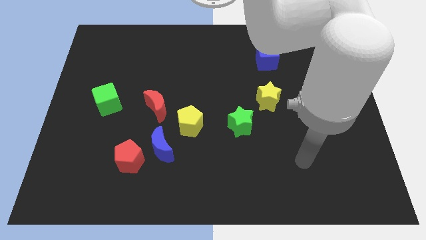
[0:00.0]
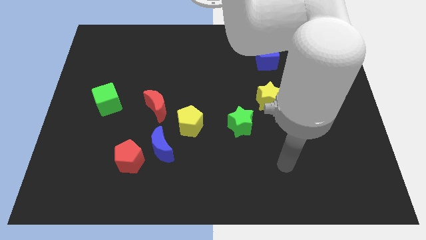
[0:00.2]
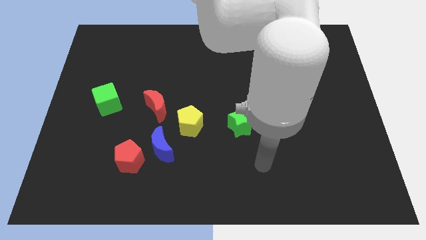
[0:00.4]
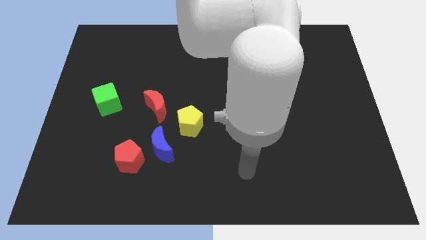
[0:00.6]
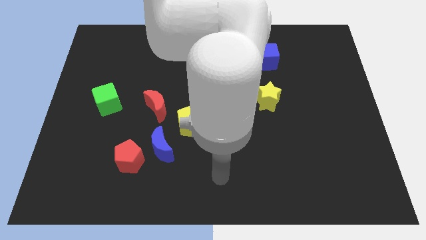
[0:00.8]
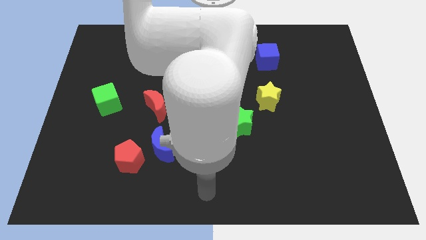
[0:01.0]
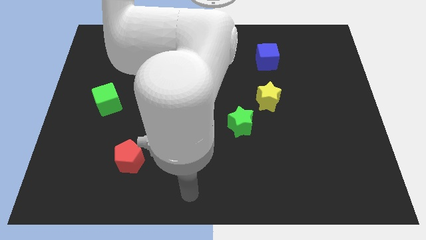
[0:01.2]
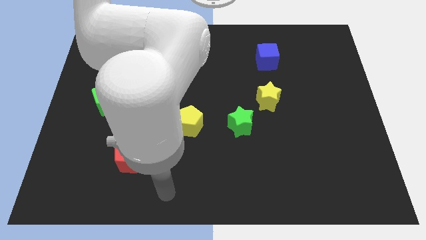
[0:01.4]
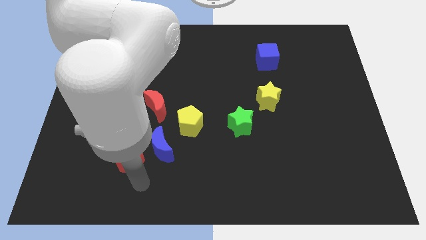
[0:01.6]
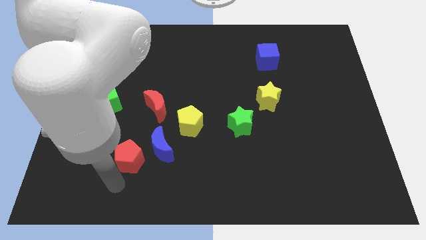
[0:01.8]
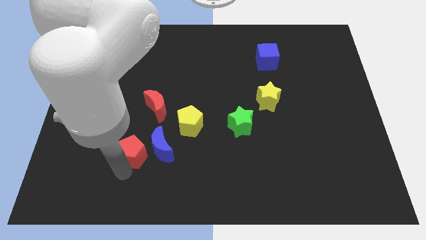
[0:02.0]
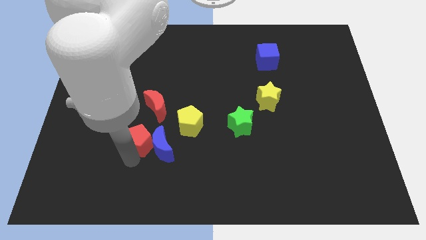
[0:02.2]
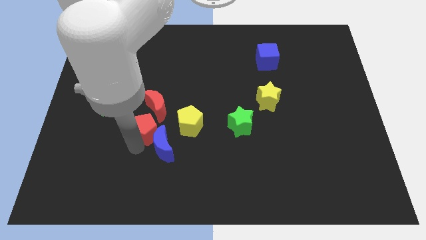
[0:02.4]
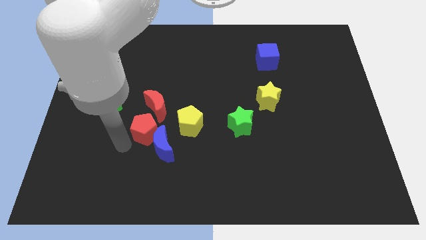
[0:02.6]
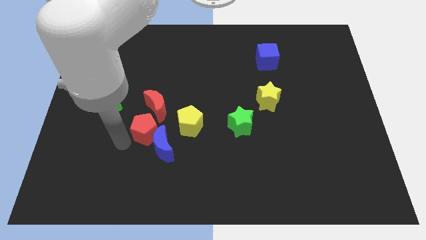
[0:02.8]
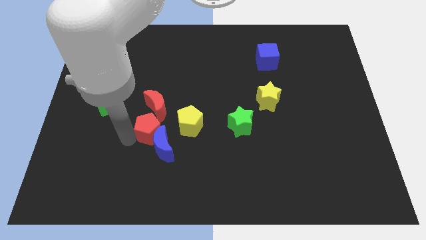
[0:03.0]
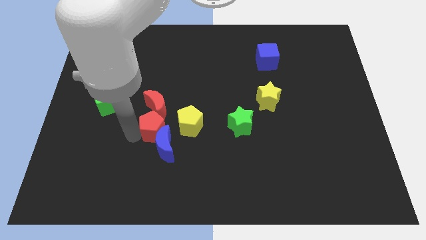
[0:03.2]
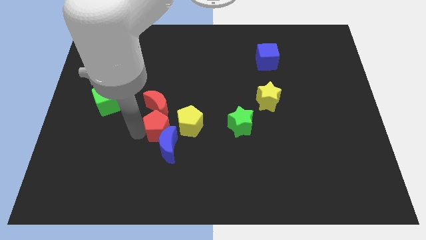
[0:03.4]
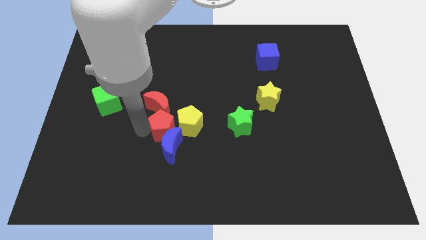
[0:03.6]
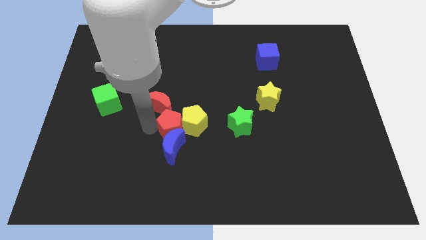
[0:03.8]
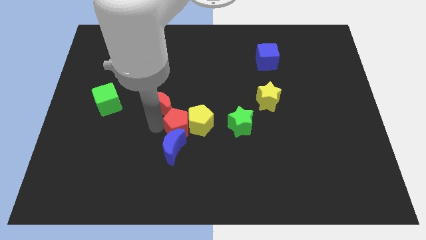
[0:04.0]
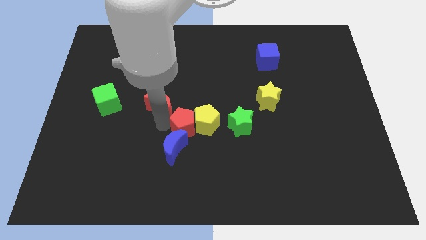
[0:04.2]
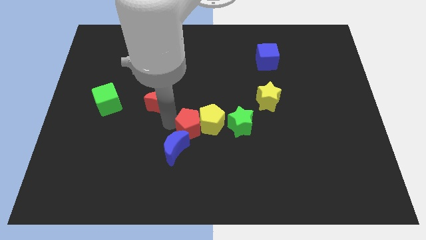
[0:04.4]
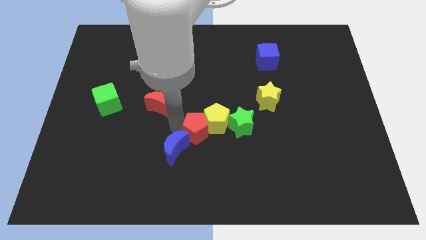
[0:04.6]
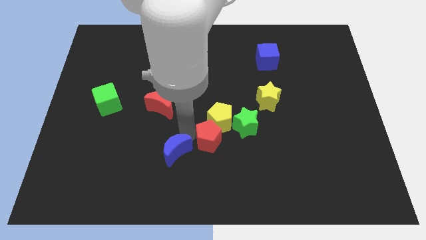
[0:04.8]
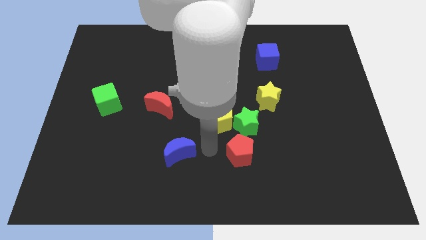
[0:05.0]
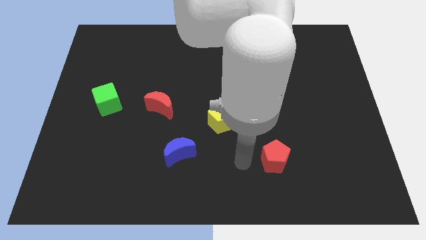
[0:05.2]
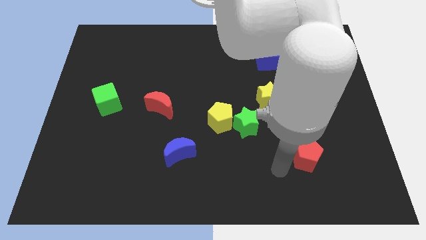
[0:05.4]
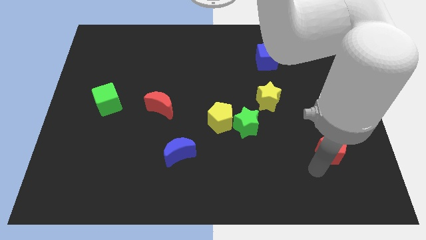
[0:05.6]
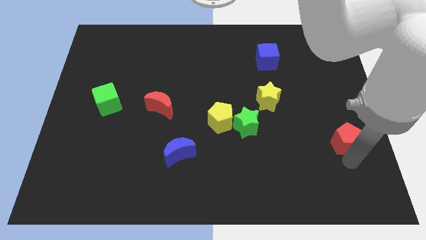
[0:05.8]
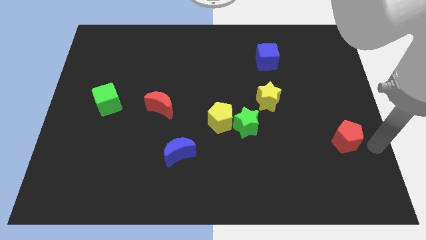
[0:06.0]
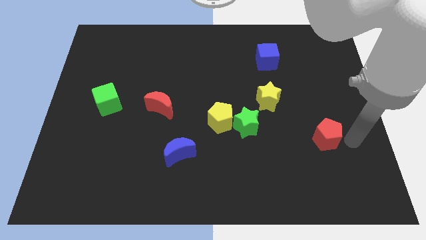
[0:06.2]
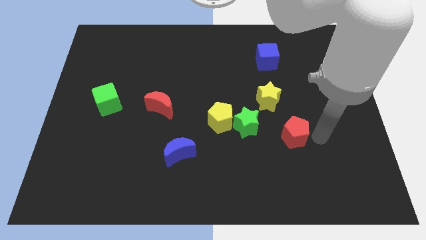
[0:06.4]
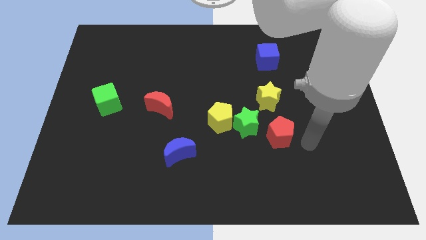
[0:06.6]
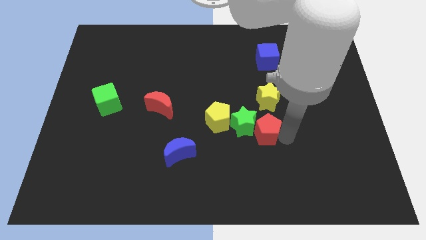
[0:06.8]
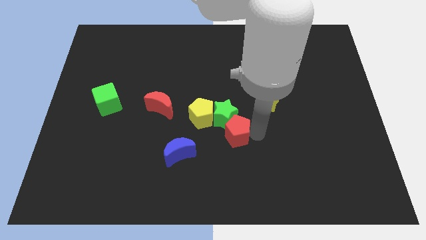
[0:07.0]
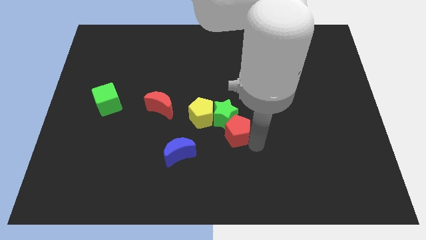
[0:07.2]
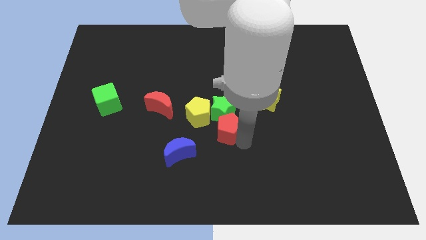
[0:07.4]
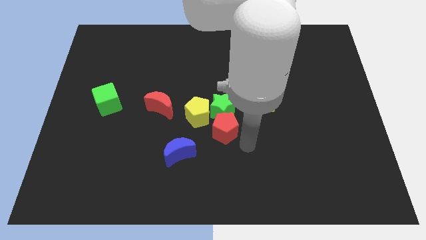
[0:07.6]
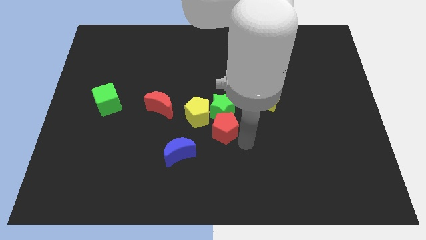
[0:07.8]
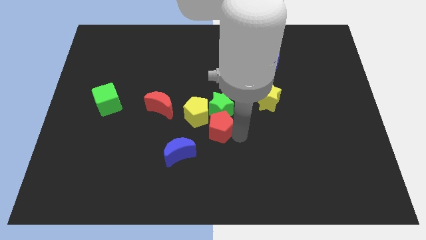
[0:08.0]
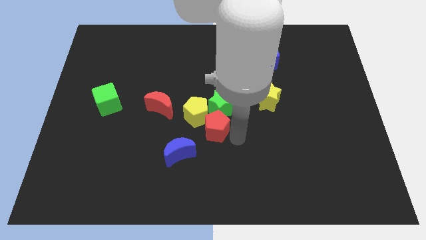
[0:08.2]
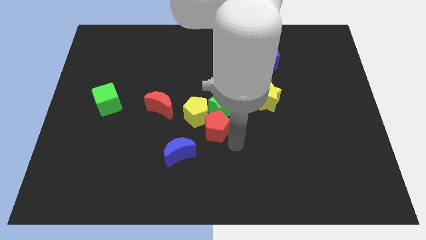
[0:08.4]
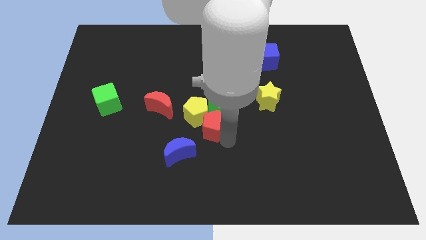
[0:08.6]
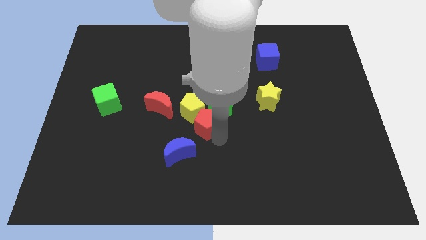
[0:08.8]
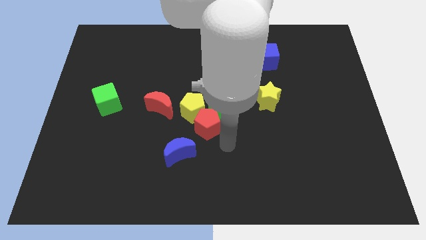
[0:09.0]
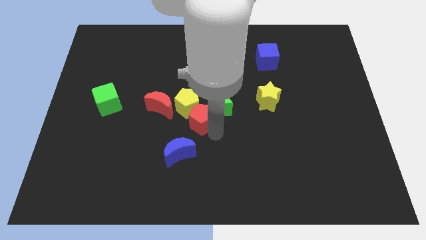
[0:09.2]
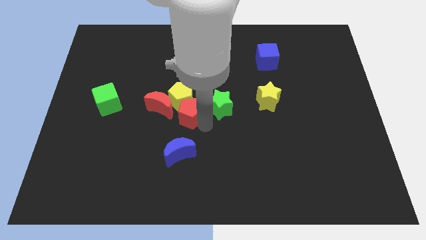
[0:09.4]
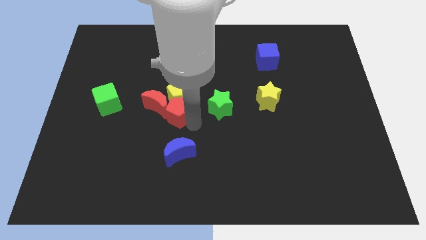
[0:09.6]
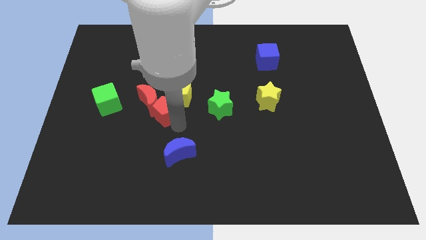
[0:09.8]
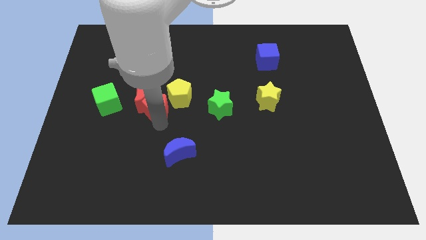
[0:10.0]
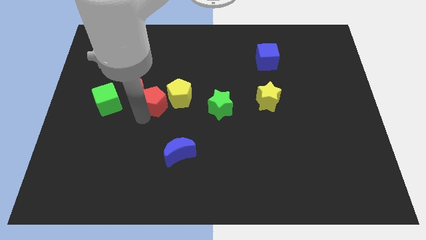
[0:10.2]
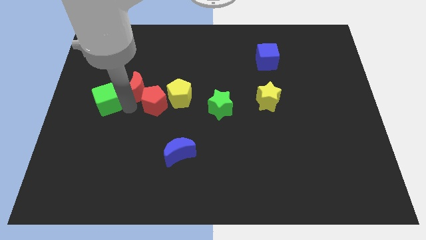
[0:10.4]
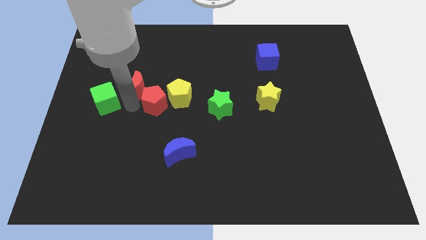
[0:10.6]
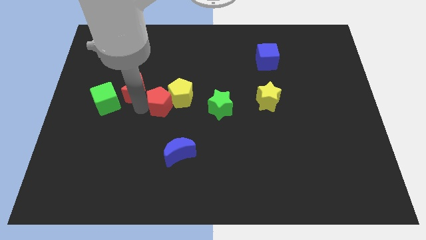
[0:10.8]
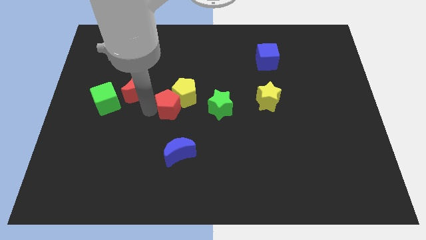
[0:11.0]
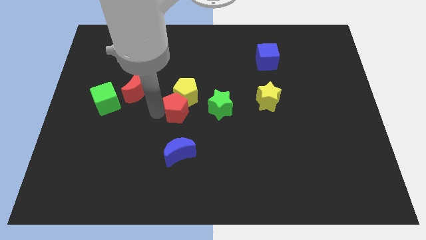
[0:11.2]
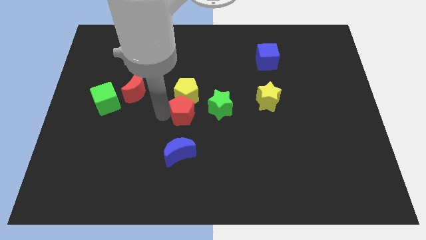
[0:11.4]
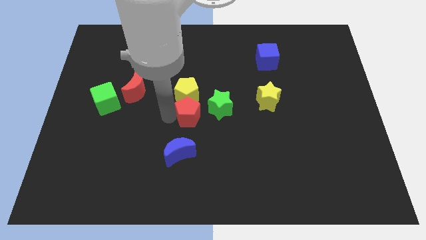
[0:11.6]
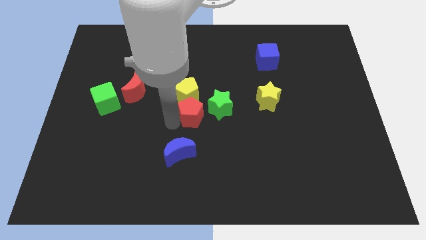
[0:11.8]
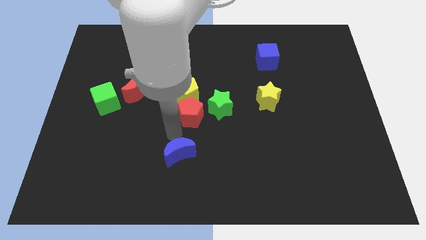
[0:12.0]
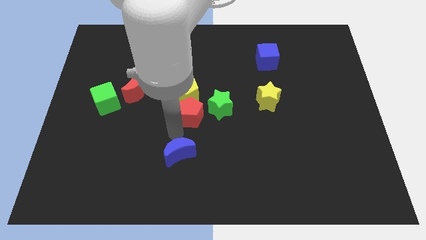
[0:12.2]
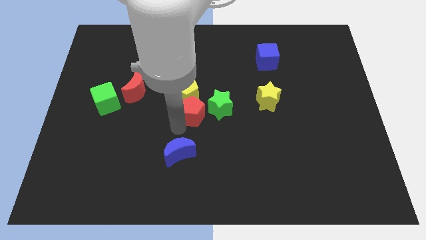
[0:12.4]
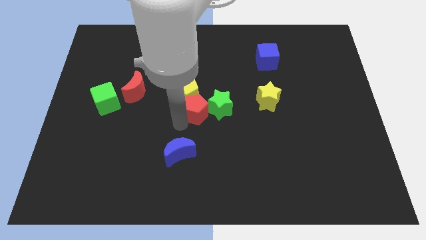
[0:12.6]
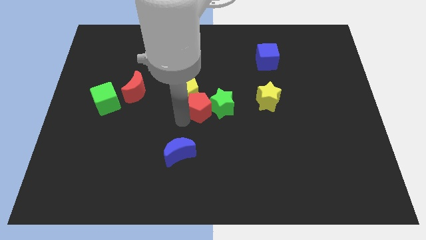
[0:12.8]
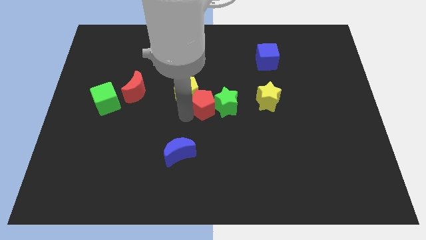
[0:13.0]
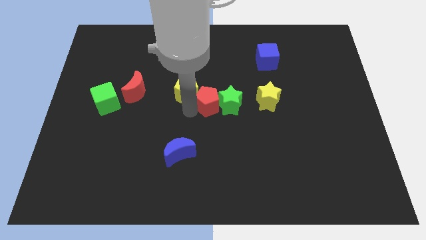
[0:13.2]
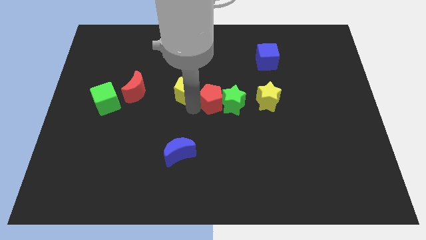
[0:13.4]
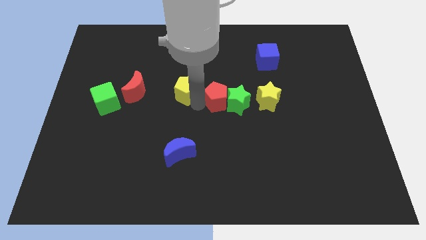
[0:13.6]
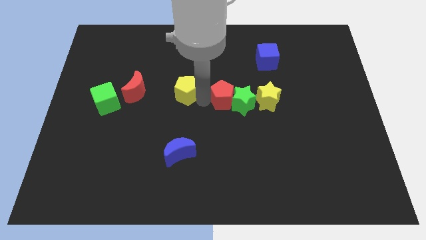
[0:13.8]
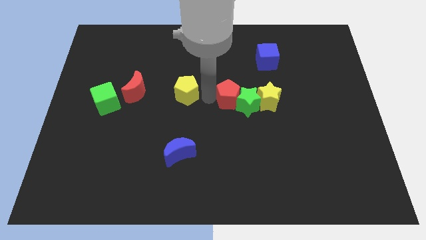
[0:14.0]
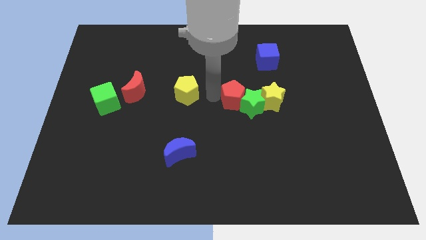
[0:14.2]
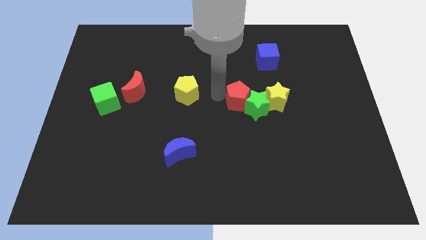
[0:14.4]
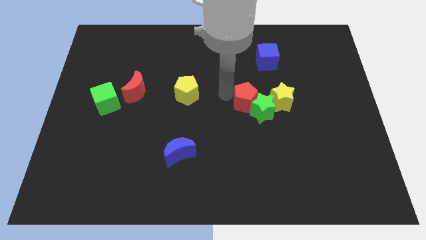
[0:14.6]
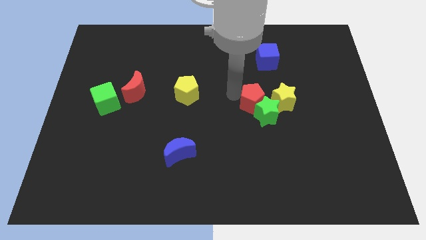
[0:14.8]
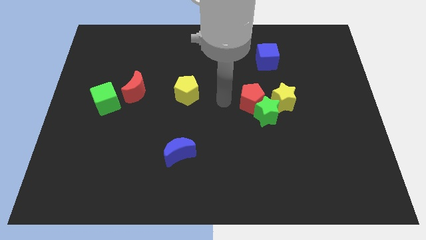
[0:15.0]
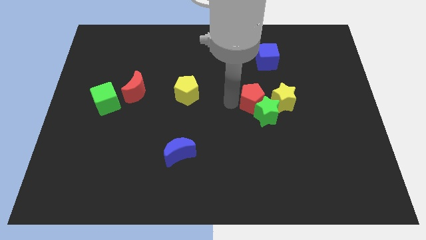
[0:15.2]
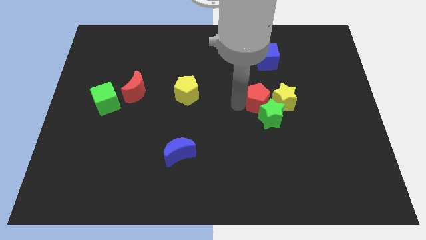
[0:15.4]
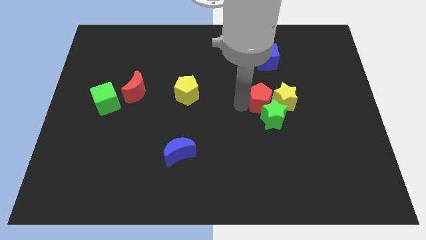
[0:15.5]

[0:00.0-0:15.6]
move the red pentagon next to the yellow star
